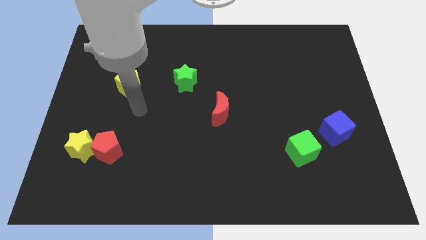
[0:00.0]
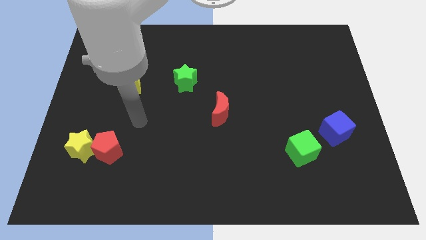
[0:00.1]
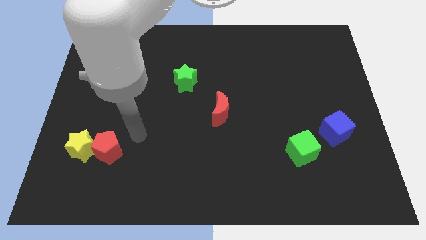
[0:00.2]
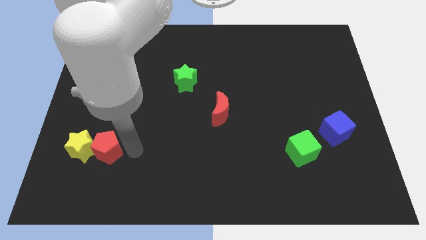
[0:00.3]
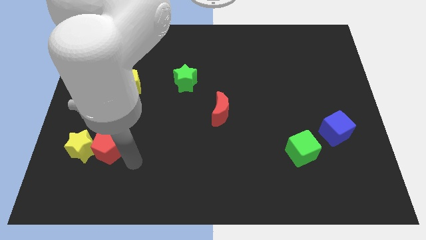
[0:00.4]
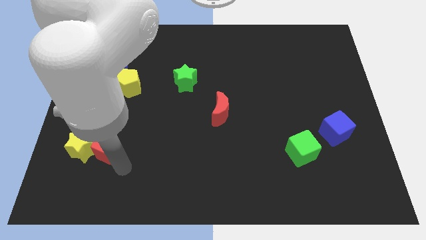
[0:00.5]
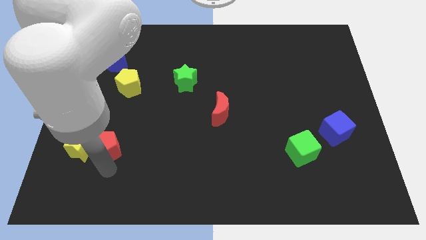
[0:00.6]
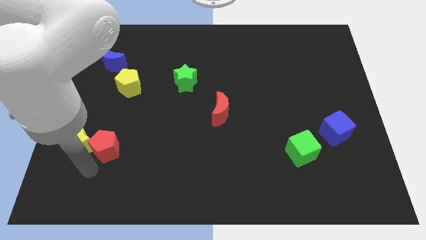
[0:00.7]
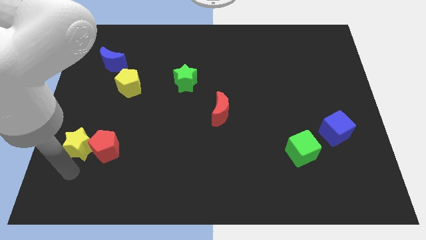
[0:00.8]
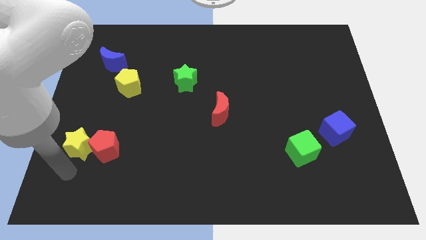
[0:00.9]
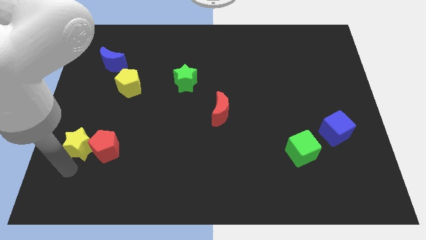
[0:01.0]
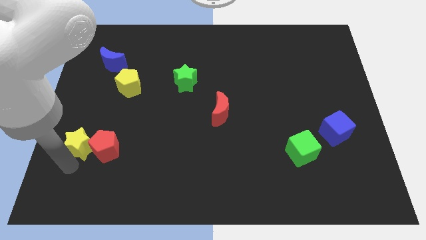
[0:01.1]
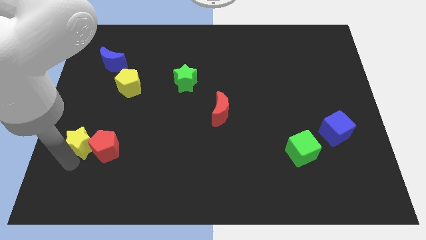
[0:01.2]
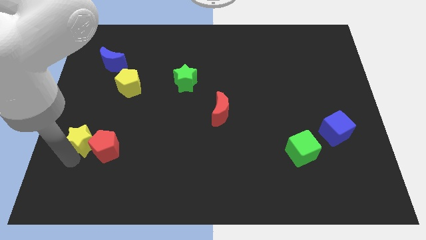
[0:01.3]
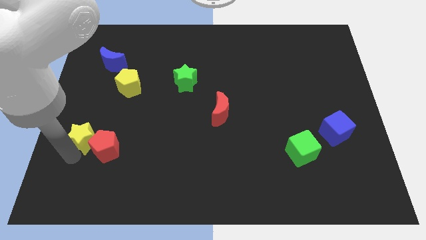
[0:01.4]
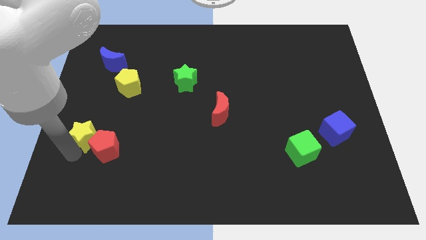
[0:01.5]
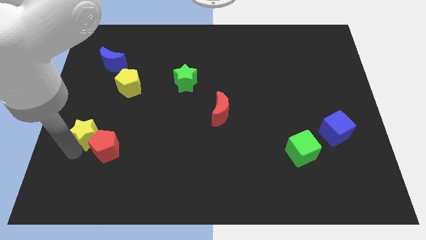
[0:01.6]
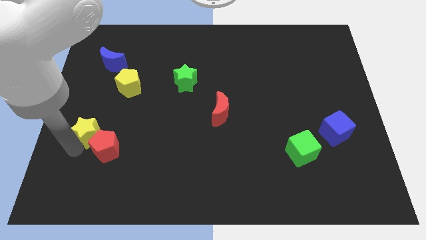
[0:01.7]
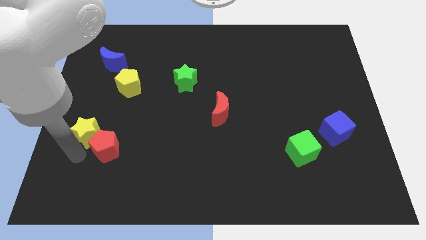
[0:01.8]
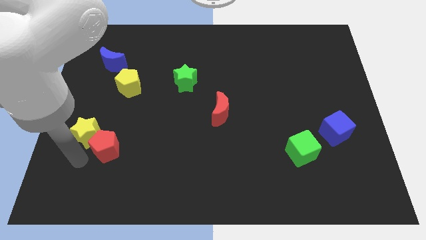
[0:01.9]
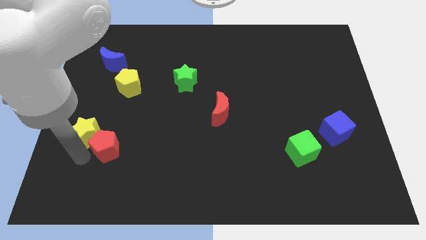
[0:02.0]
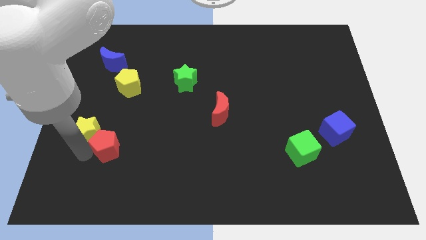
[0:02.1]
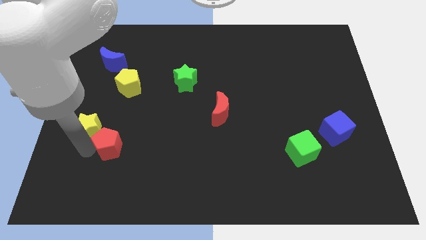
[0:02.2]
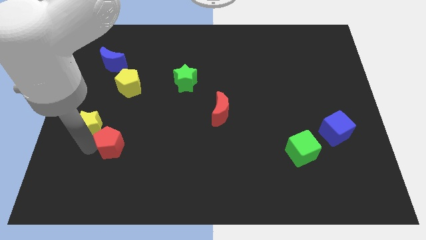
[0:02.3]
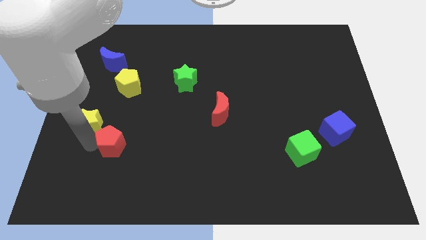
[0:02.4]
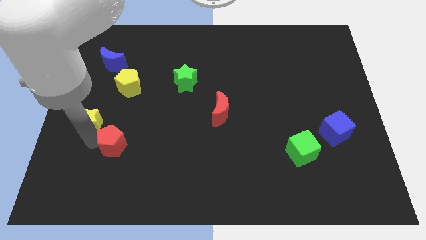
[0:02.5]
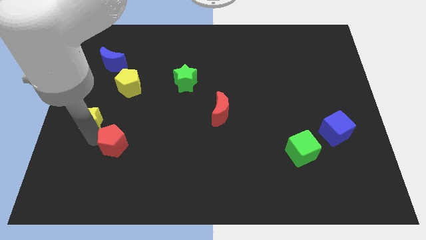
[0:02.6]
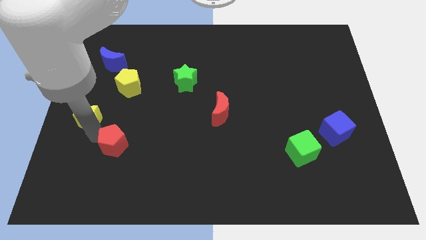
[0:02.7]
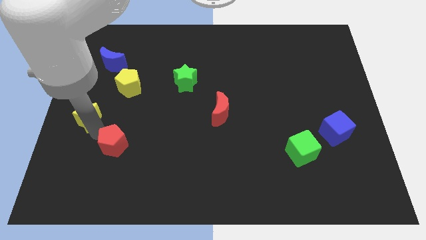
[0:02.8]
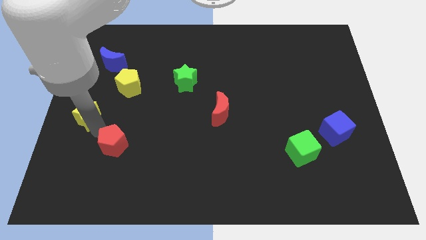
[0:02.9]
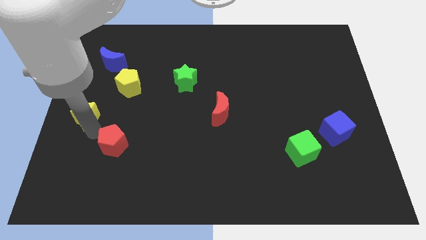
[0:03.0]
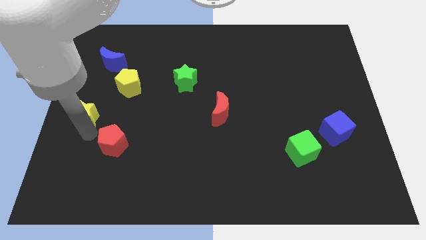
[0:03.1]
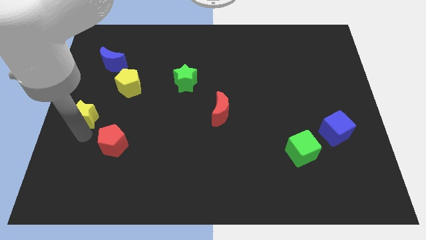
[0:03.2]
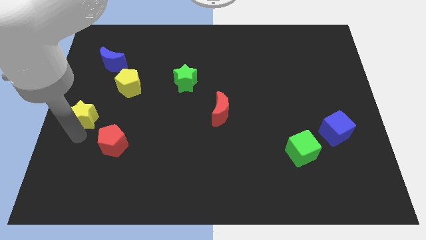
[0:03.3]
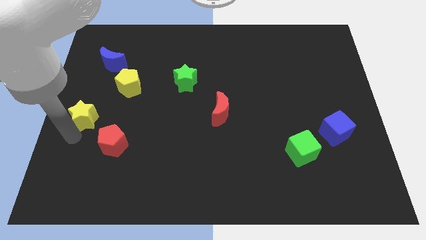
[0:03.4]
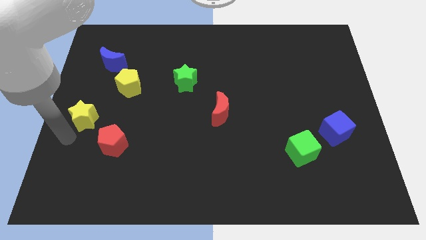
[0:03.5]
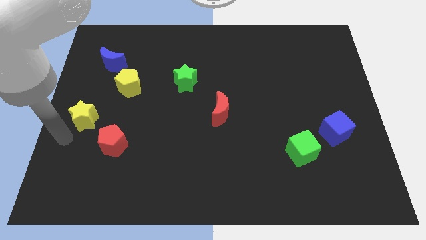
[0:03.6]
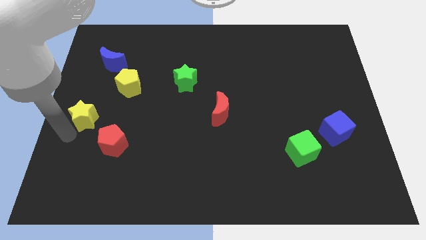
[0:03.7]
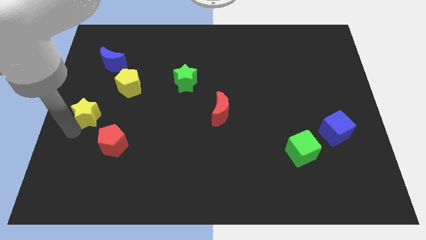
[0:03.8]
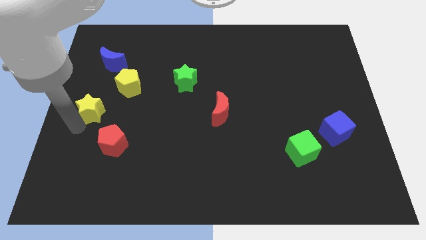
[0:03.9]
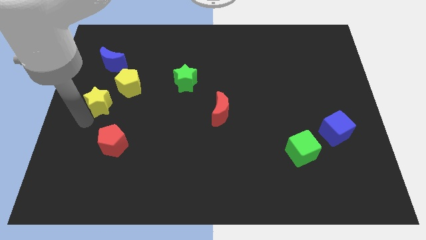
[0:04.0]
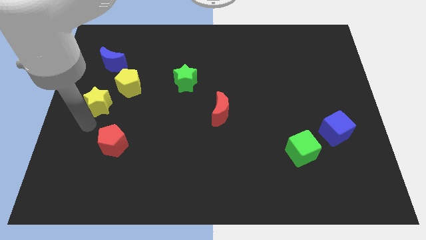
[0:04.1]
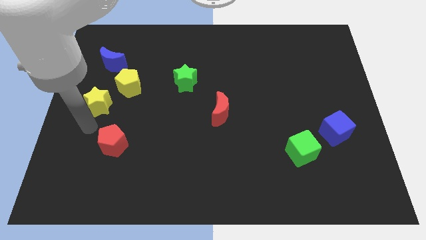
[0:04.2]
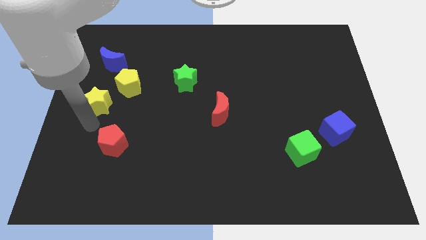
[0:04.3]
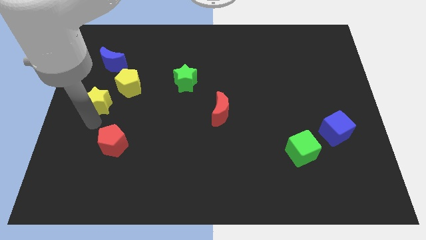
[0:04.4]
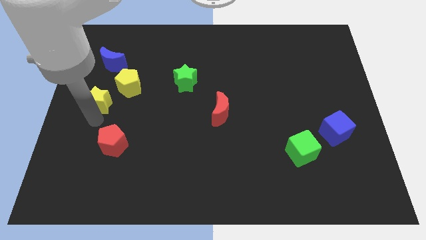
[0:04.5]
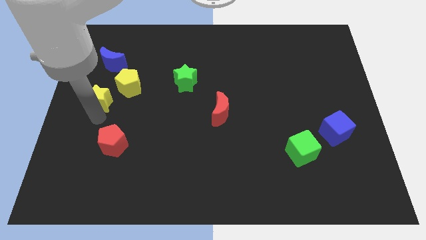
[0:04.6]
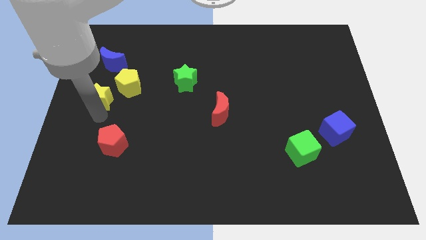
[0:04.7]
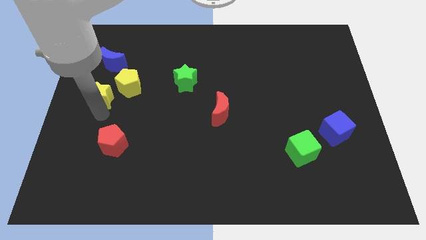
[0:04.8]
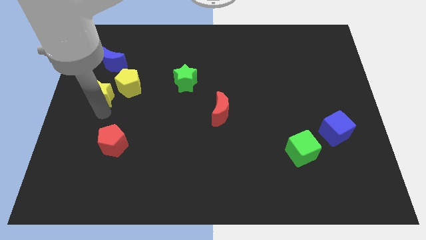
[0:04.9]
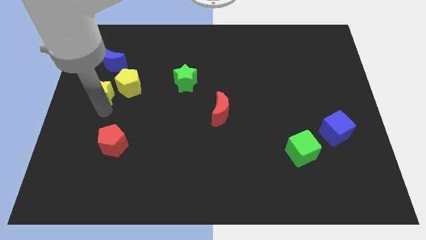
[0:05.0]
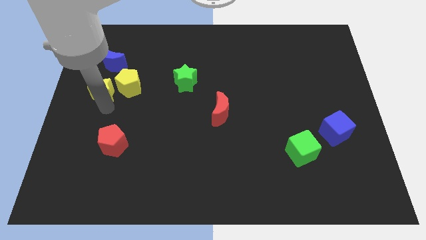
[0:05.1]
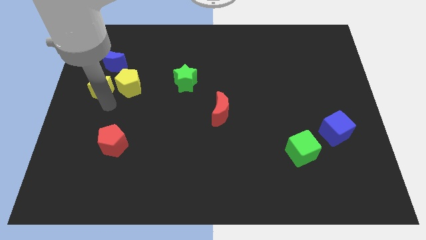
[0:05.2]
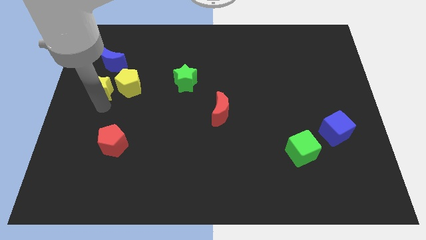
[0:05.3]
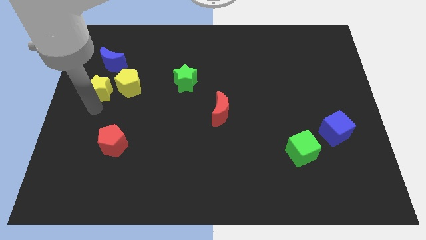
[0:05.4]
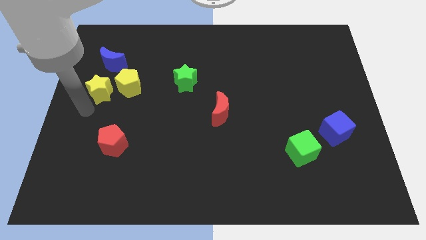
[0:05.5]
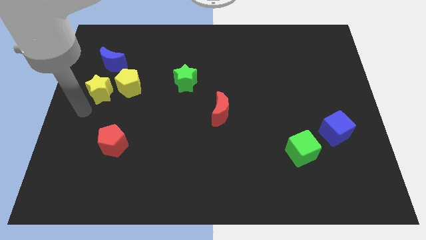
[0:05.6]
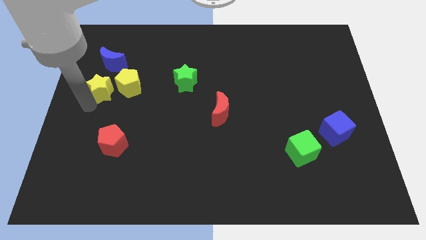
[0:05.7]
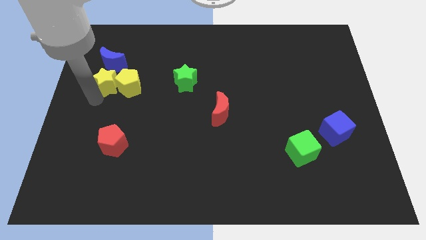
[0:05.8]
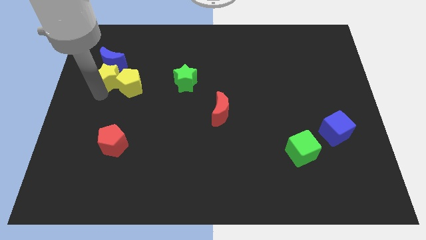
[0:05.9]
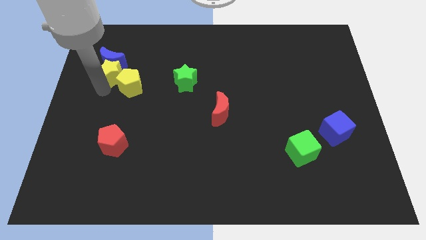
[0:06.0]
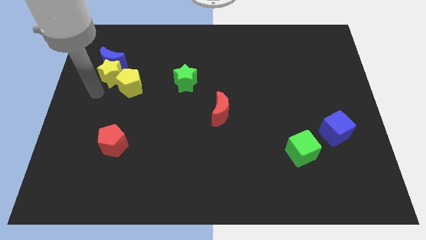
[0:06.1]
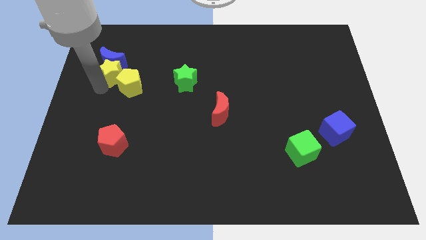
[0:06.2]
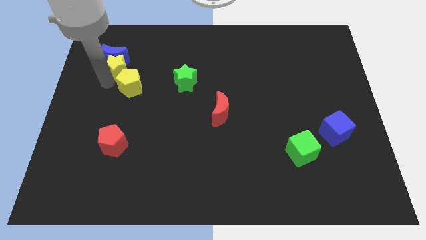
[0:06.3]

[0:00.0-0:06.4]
push the yellow star to the top of the yellow pentagon
